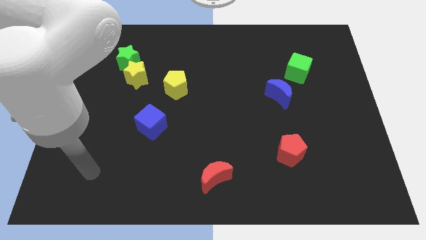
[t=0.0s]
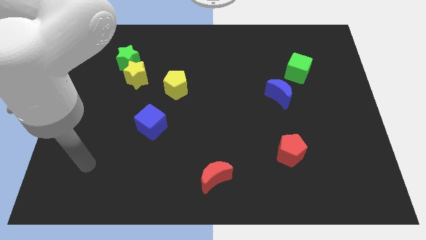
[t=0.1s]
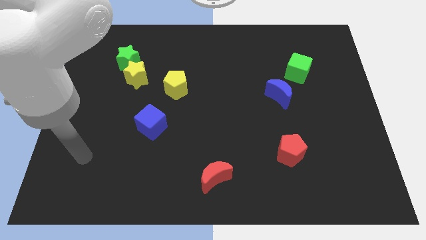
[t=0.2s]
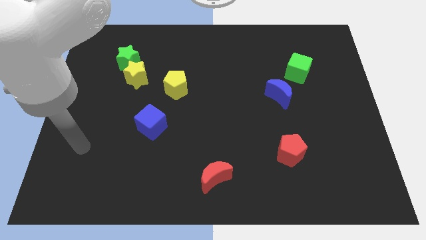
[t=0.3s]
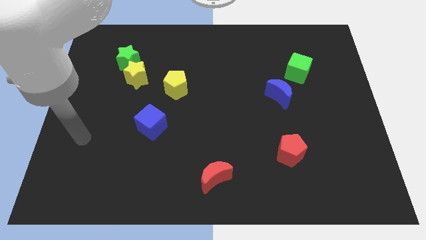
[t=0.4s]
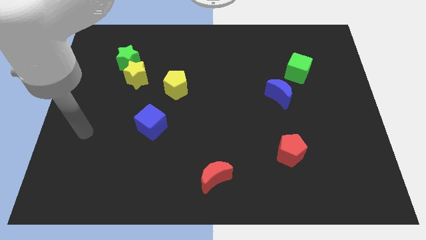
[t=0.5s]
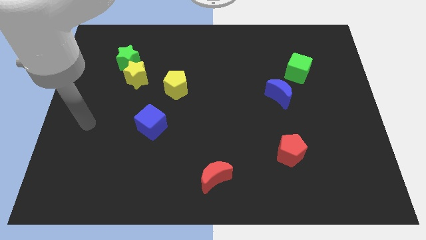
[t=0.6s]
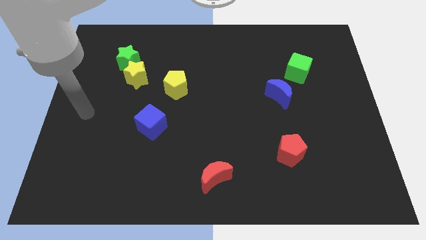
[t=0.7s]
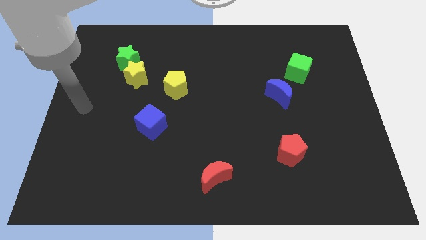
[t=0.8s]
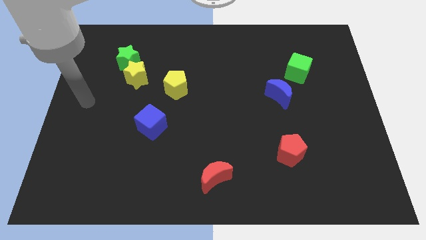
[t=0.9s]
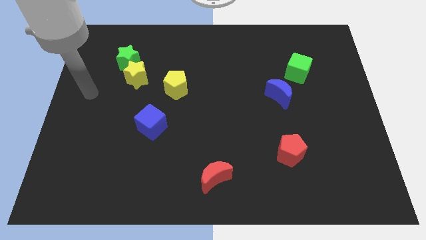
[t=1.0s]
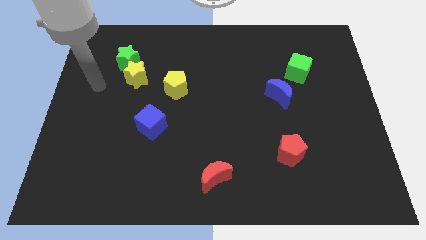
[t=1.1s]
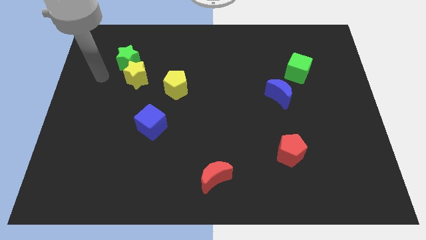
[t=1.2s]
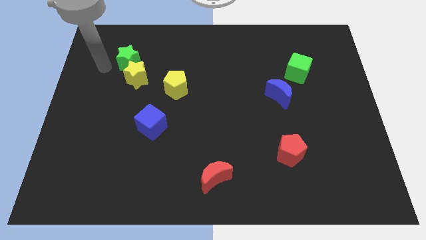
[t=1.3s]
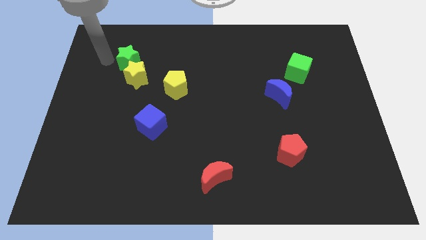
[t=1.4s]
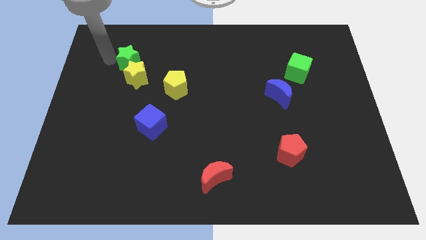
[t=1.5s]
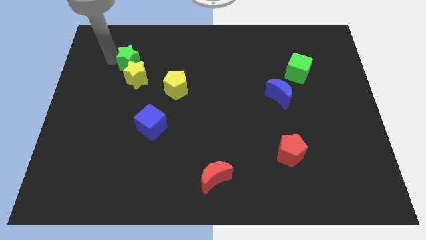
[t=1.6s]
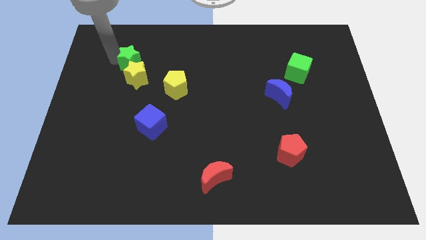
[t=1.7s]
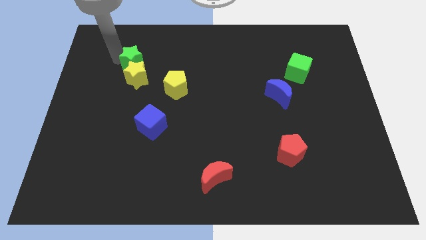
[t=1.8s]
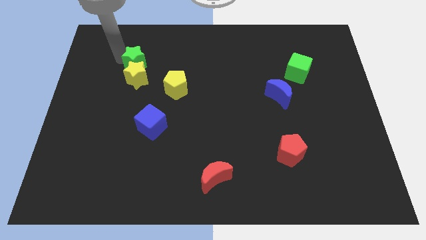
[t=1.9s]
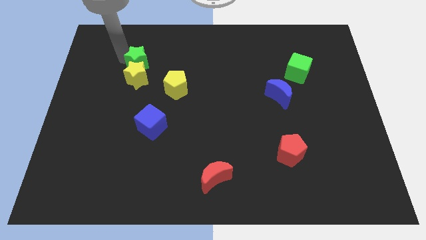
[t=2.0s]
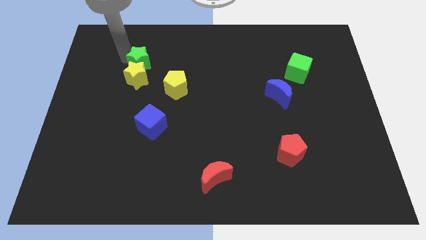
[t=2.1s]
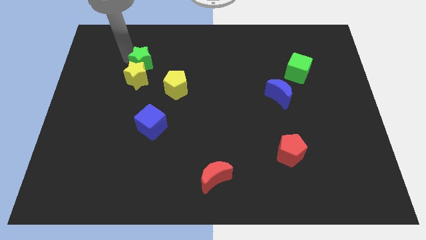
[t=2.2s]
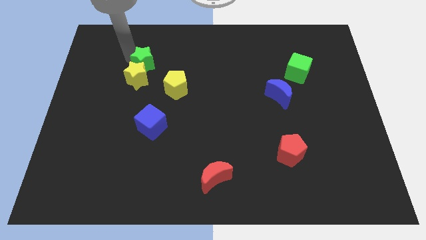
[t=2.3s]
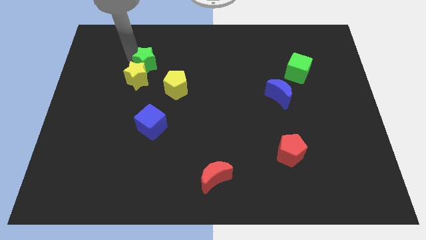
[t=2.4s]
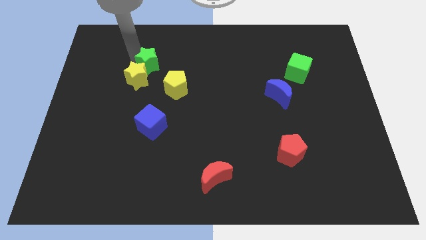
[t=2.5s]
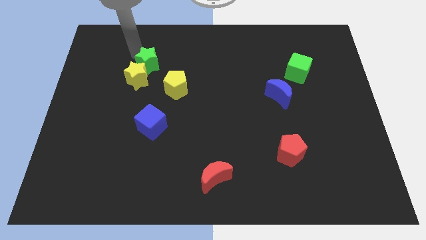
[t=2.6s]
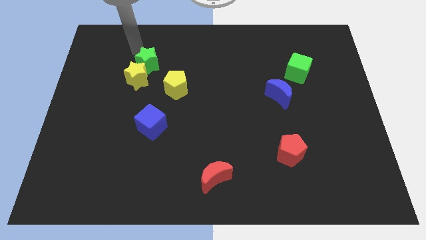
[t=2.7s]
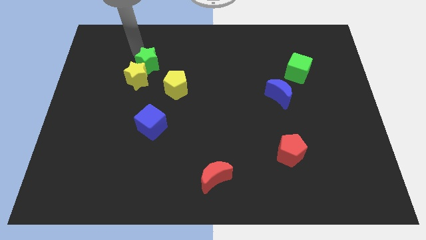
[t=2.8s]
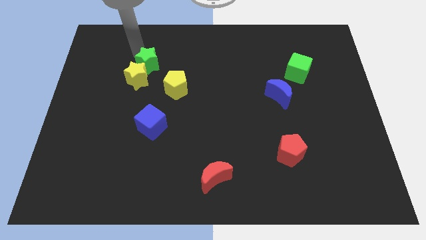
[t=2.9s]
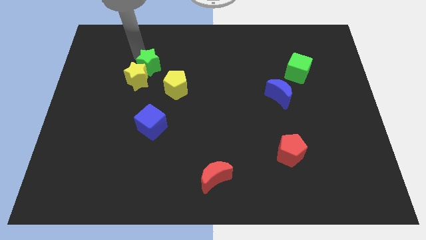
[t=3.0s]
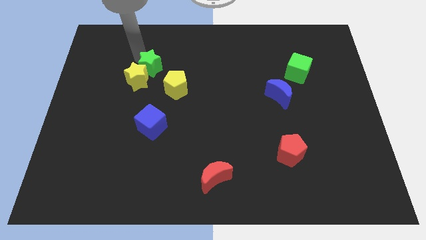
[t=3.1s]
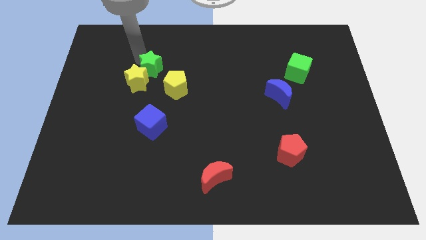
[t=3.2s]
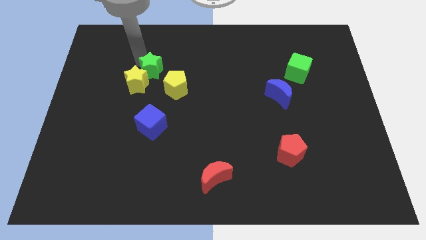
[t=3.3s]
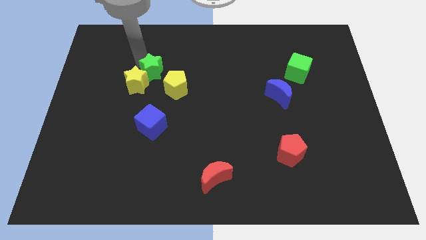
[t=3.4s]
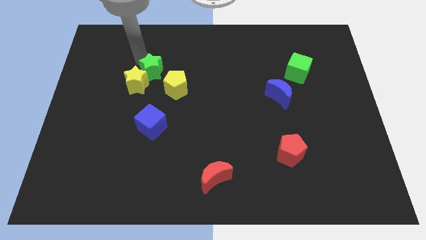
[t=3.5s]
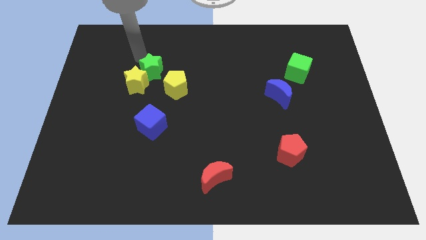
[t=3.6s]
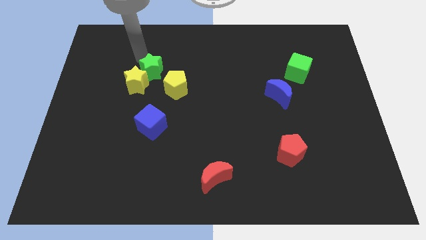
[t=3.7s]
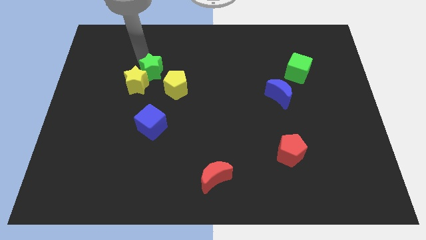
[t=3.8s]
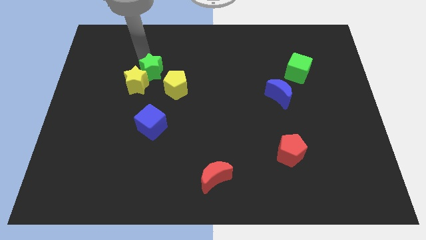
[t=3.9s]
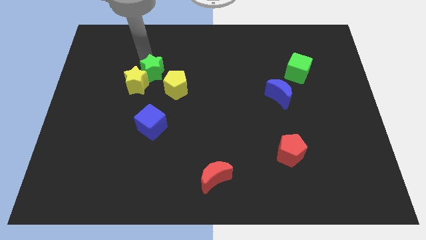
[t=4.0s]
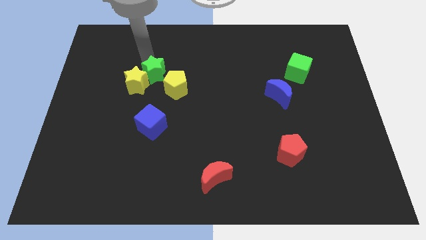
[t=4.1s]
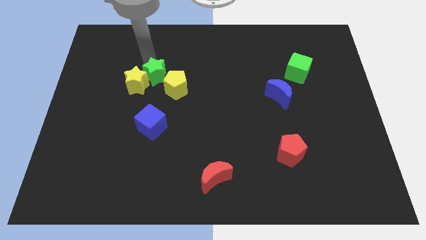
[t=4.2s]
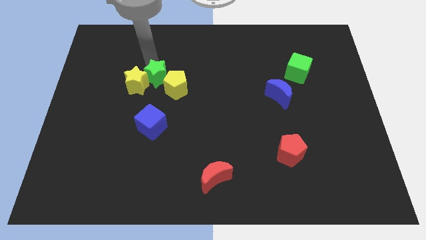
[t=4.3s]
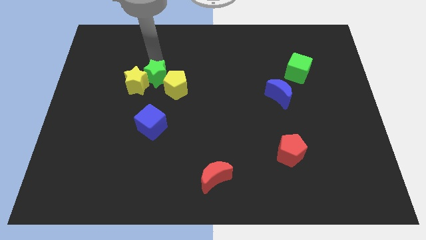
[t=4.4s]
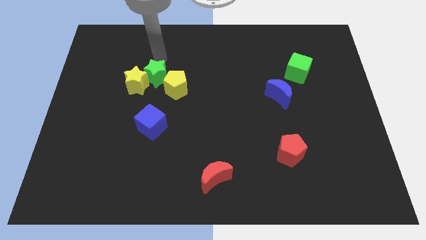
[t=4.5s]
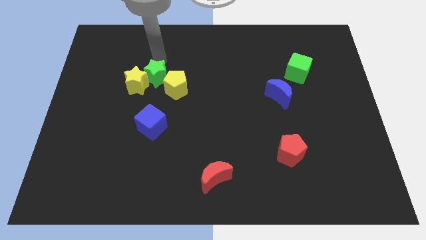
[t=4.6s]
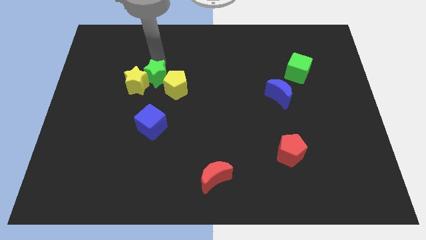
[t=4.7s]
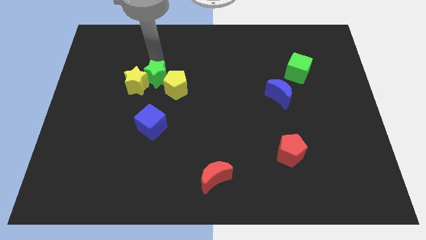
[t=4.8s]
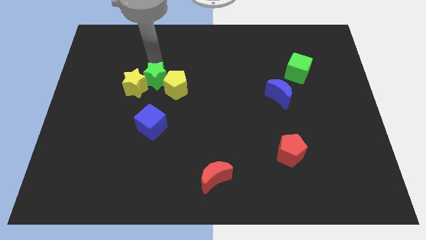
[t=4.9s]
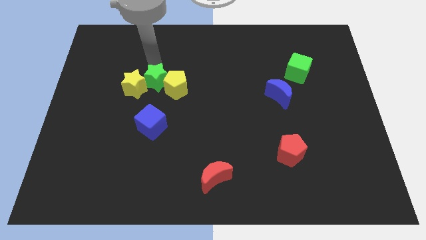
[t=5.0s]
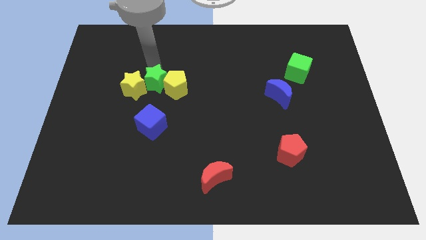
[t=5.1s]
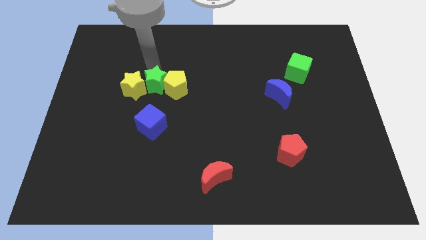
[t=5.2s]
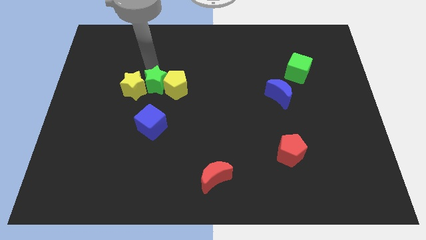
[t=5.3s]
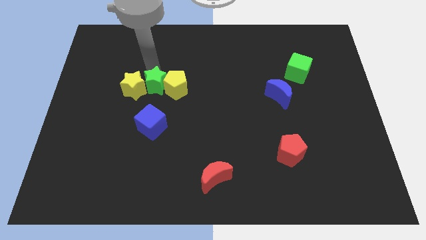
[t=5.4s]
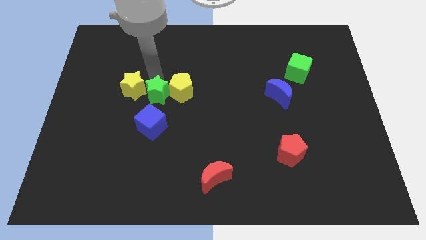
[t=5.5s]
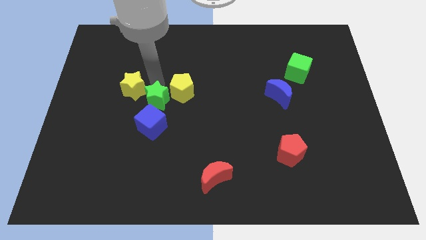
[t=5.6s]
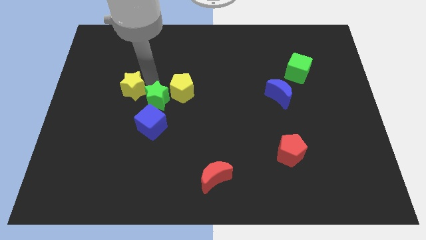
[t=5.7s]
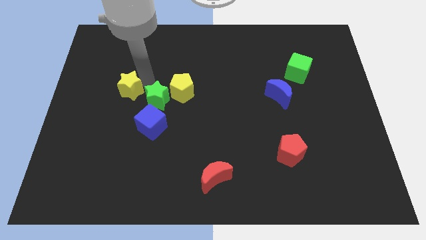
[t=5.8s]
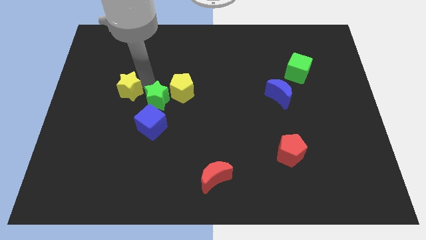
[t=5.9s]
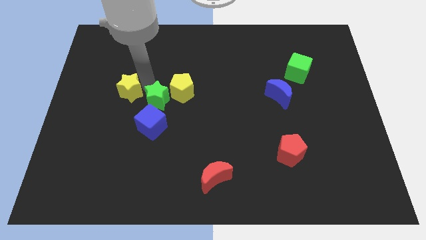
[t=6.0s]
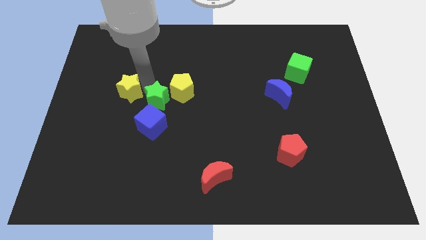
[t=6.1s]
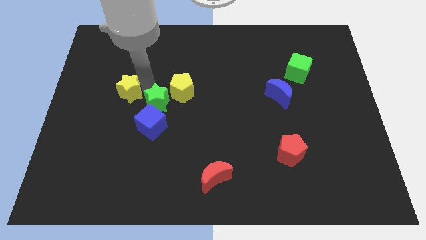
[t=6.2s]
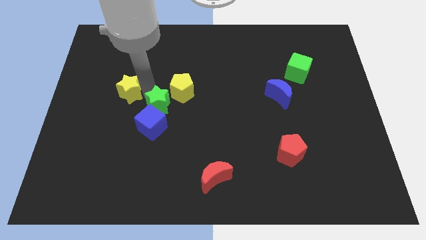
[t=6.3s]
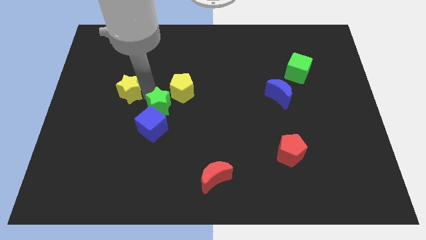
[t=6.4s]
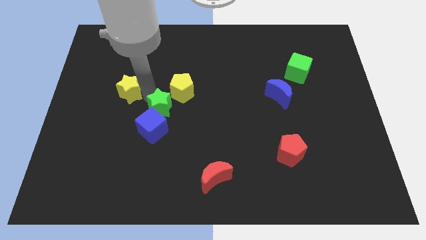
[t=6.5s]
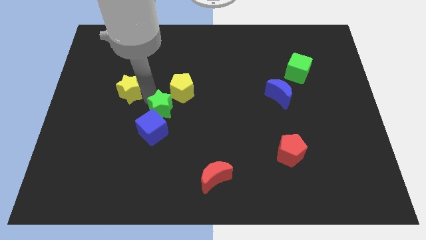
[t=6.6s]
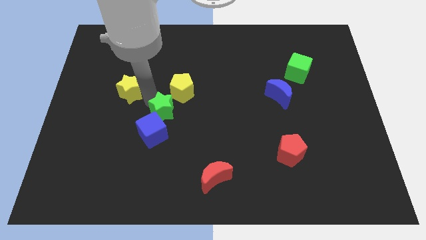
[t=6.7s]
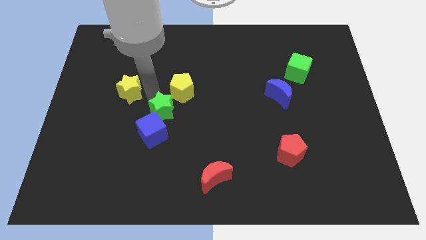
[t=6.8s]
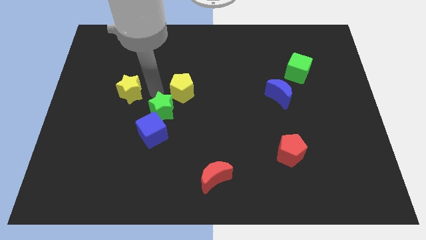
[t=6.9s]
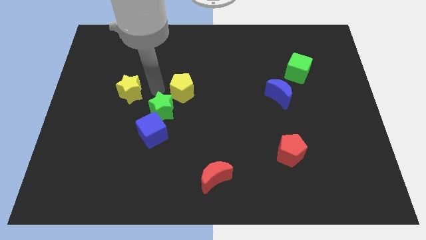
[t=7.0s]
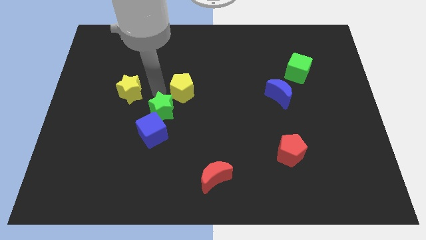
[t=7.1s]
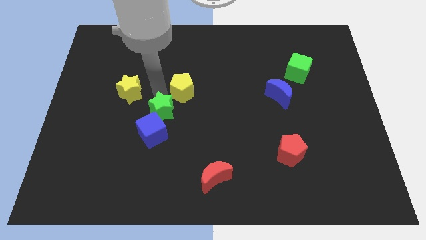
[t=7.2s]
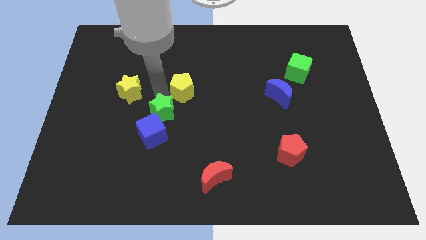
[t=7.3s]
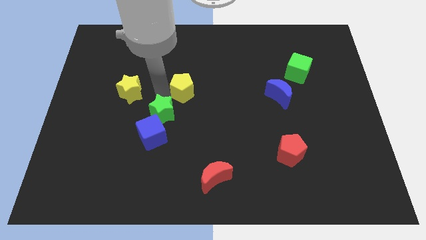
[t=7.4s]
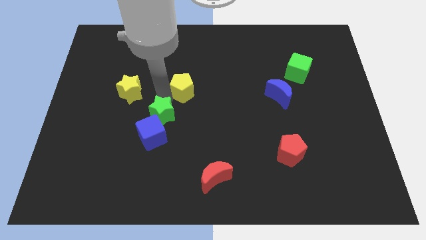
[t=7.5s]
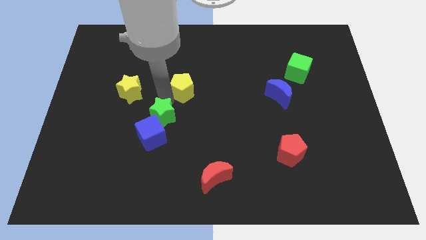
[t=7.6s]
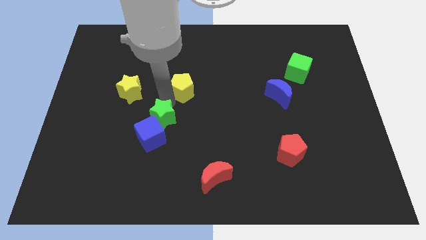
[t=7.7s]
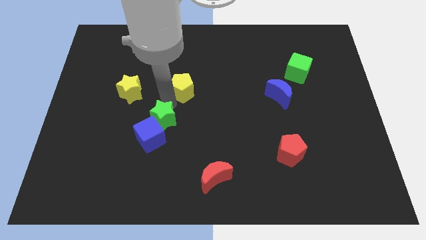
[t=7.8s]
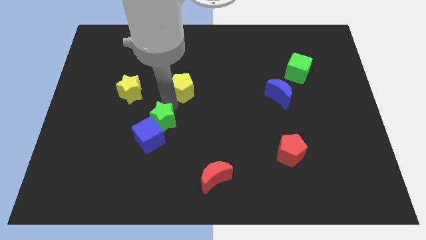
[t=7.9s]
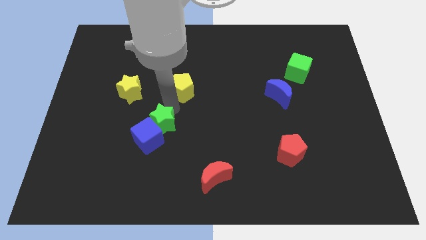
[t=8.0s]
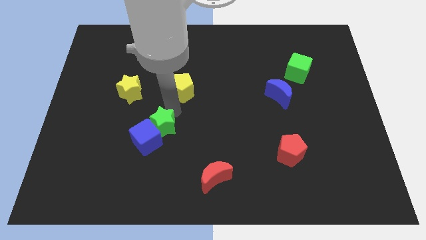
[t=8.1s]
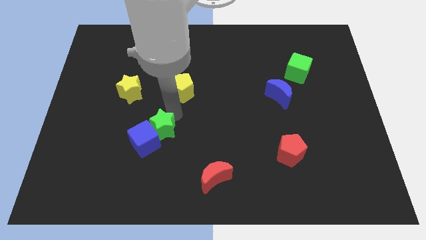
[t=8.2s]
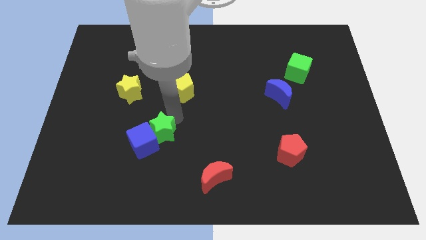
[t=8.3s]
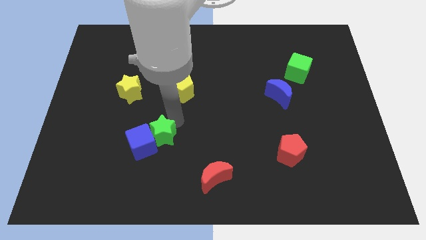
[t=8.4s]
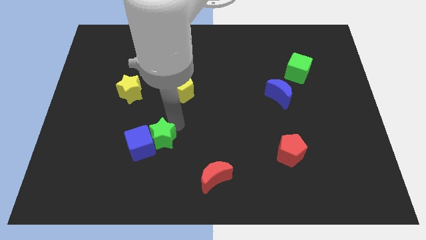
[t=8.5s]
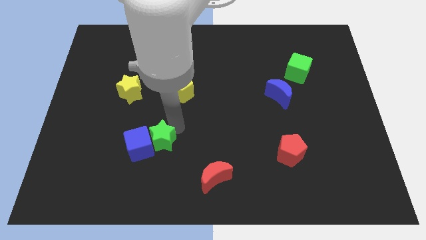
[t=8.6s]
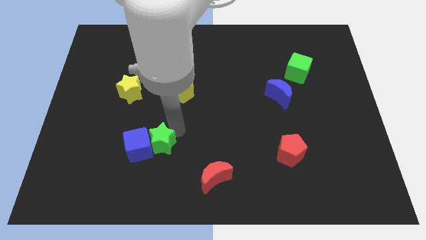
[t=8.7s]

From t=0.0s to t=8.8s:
slide the green star diagonally down and to the right of the blue cube
